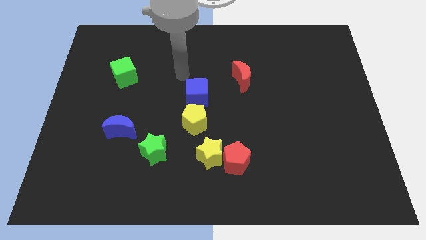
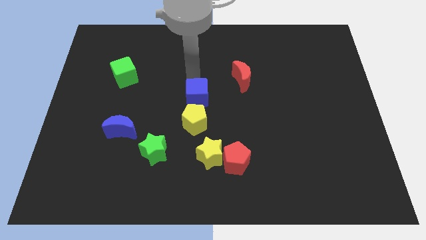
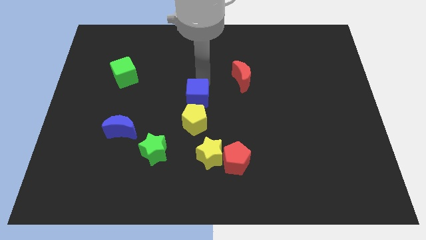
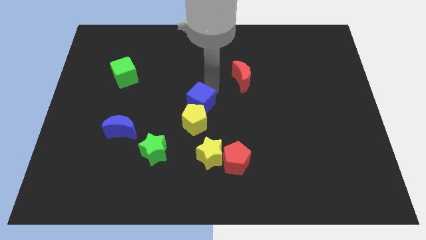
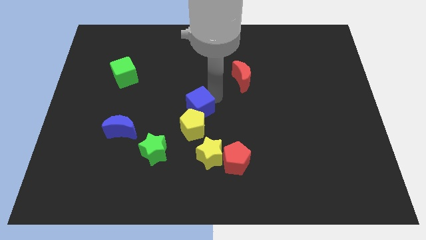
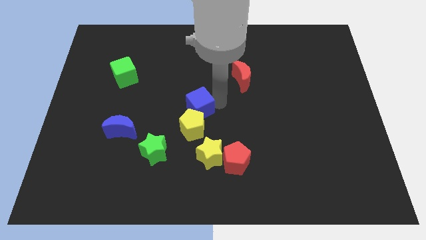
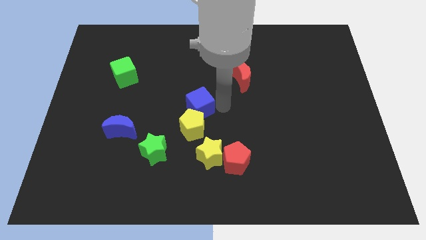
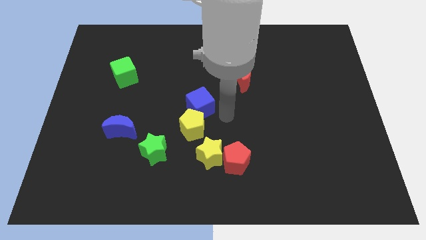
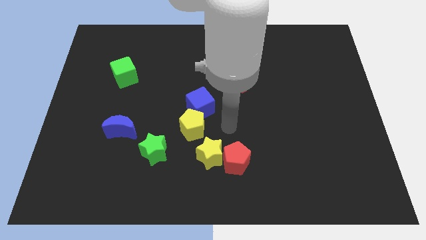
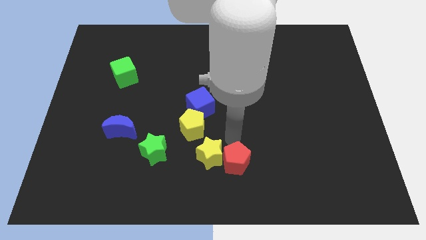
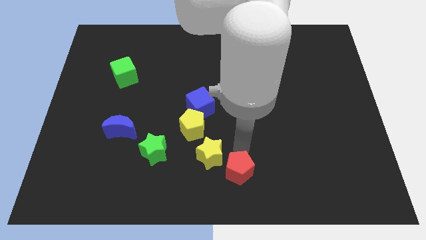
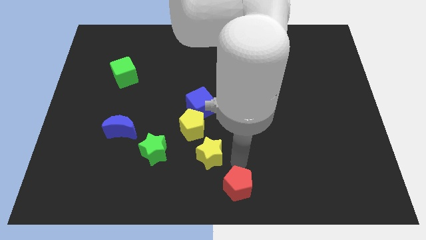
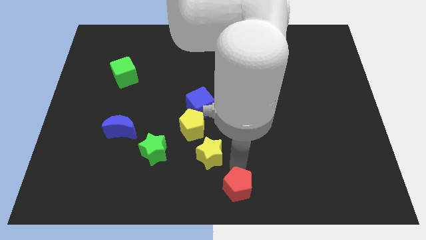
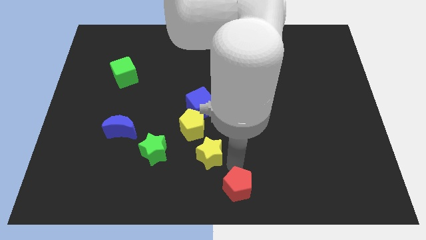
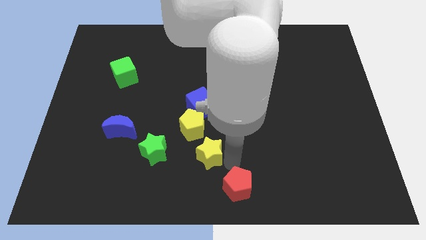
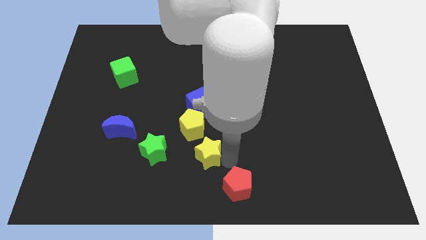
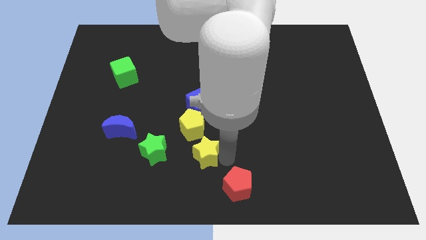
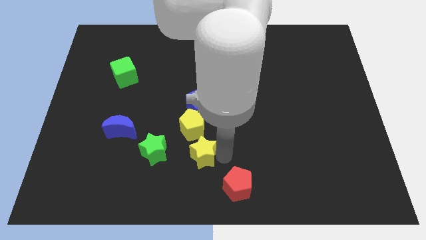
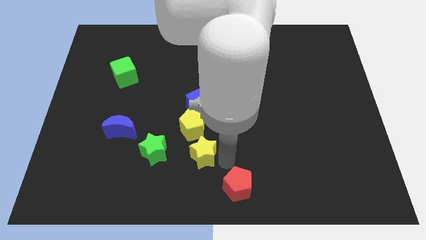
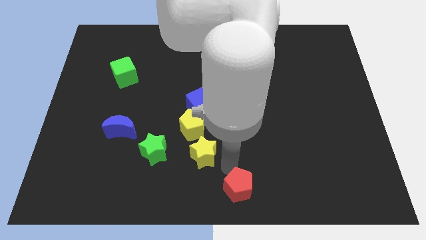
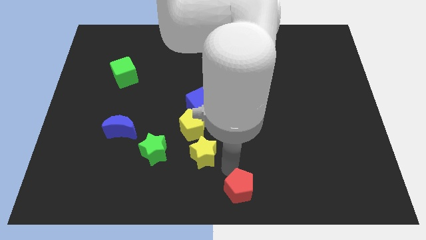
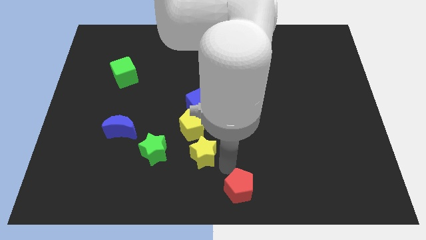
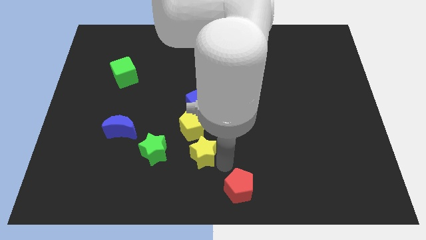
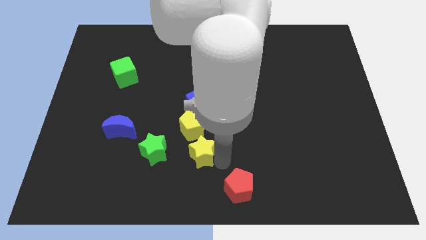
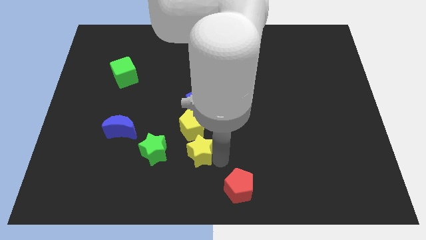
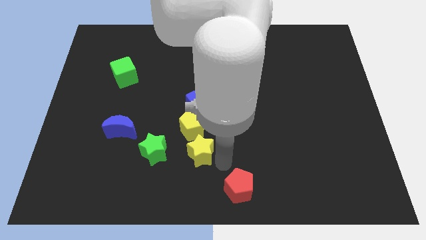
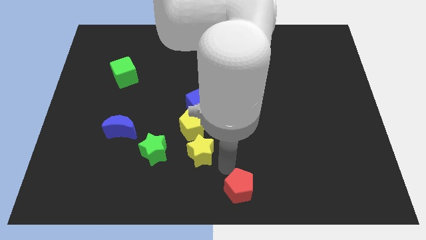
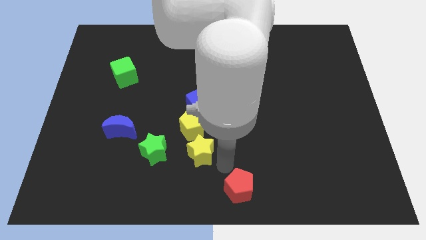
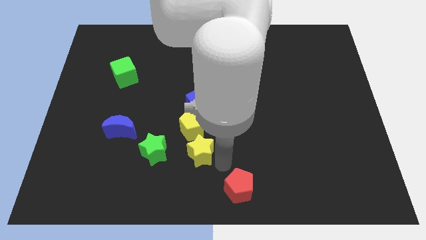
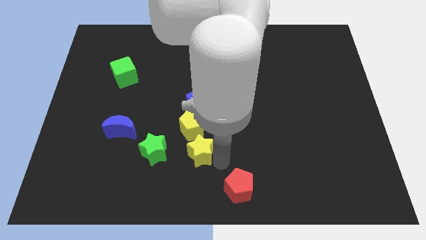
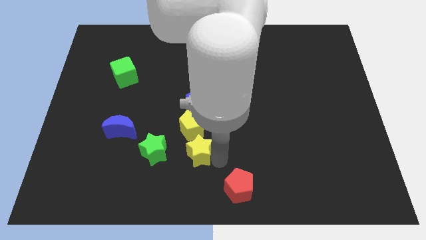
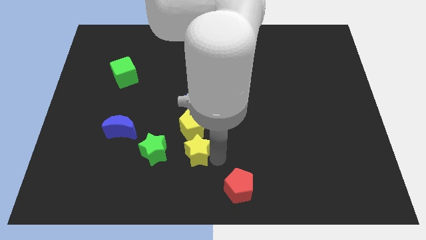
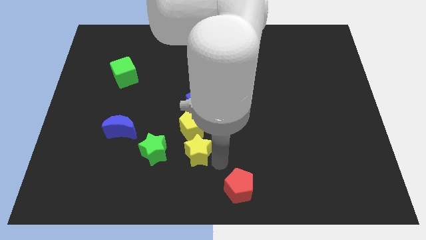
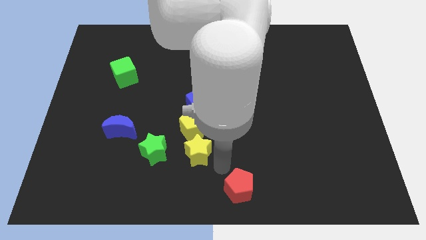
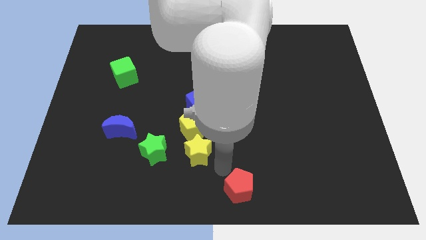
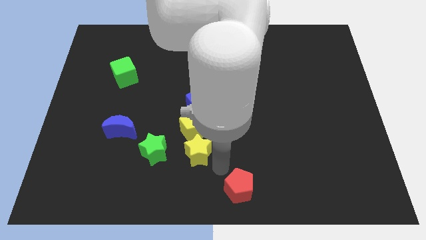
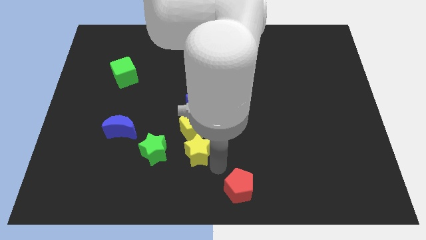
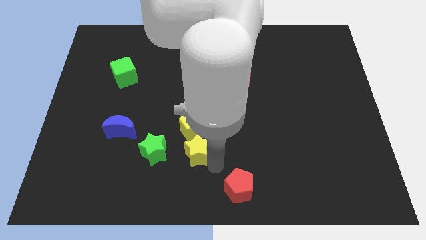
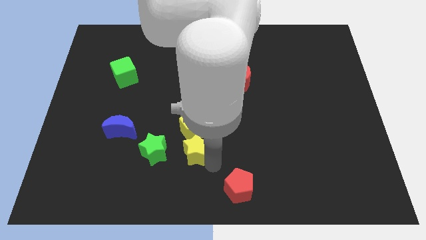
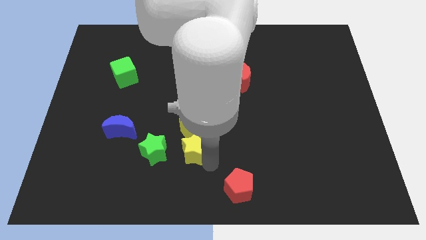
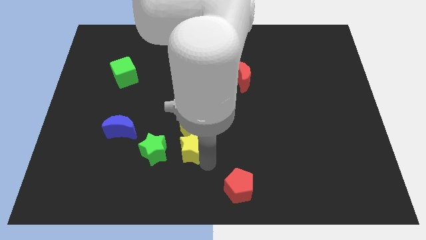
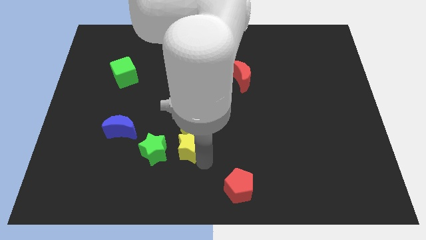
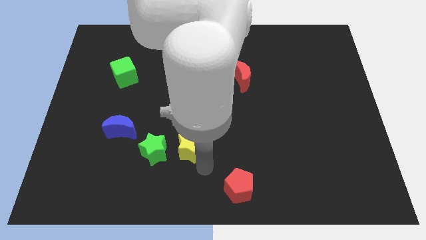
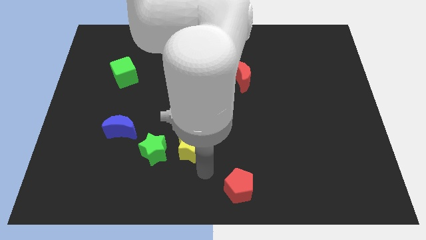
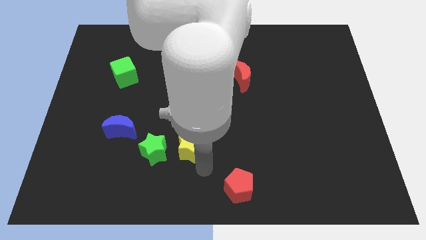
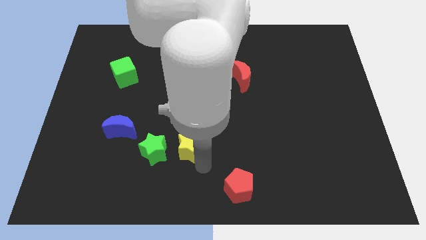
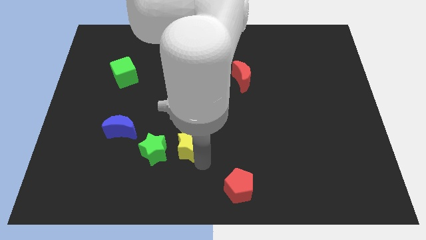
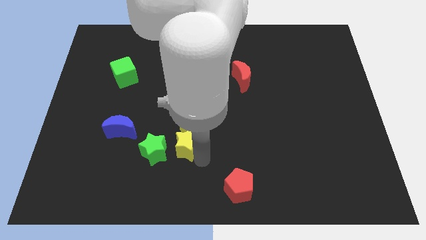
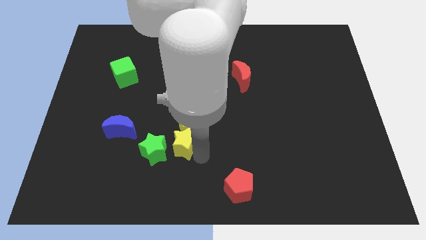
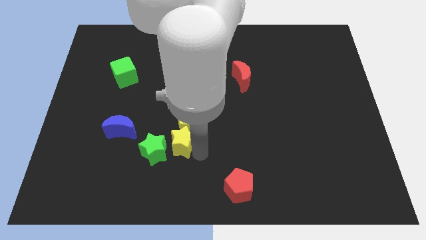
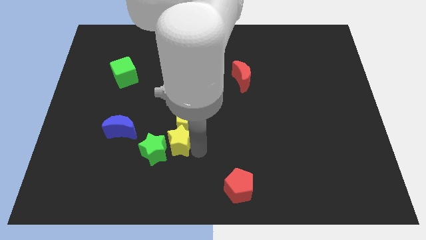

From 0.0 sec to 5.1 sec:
slide the yellow star diagonally down and to the left of the blue cube

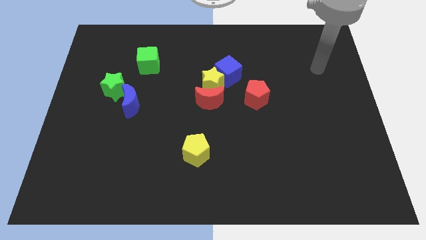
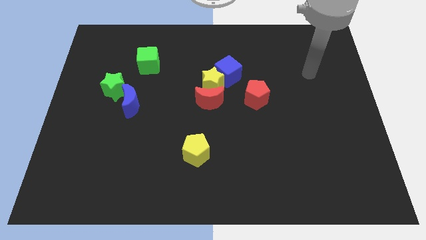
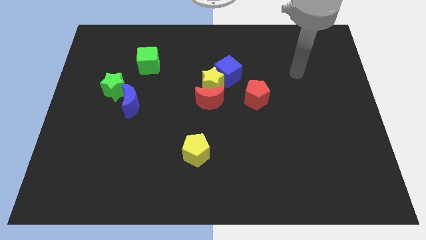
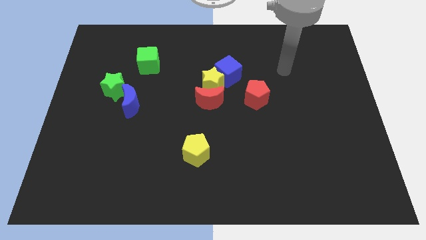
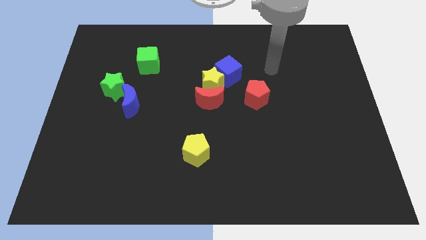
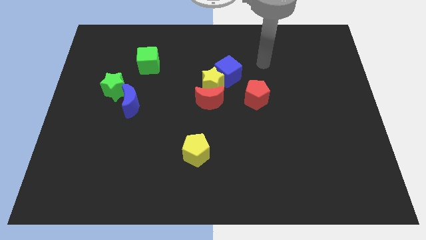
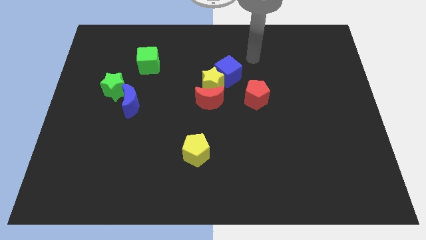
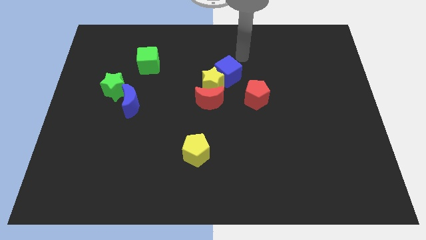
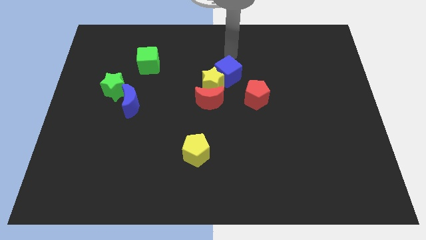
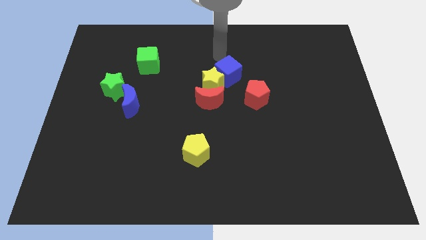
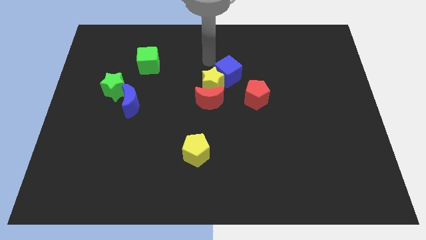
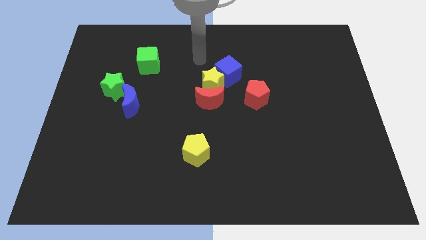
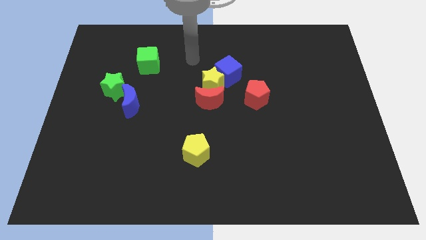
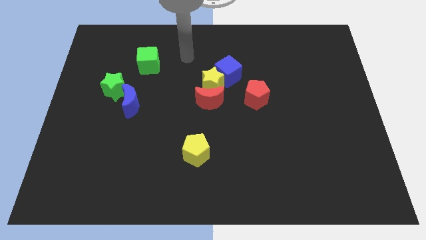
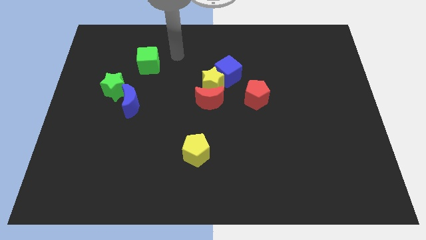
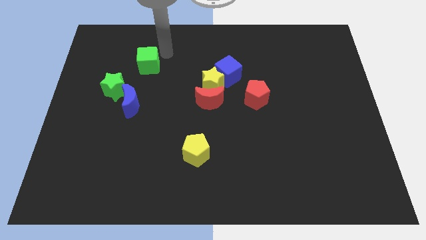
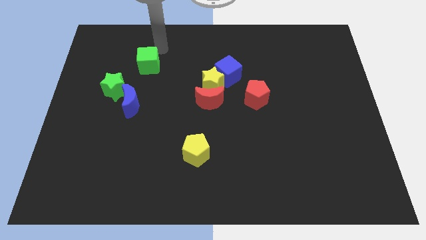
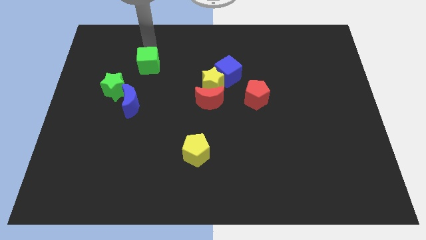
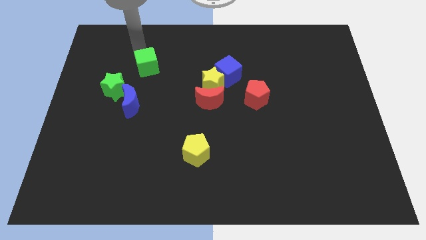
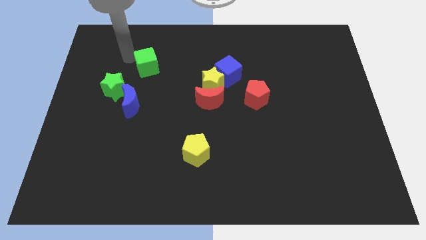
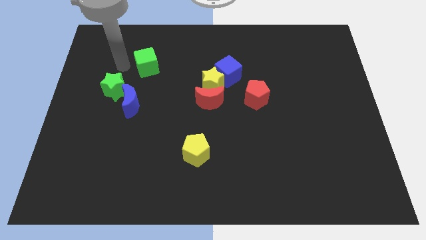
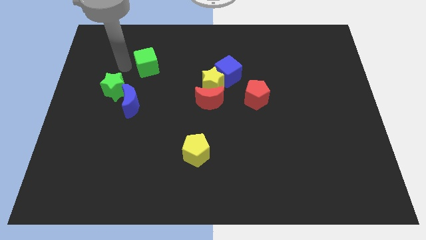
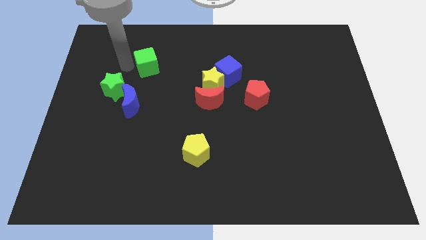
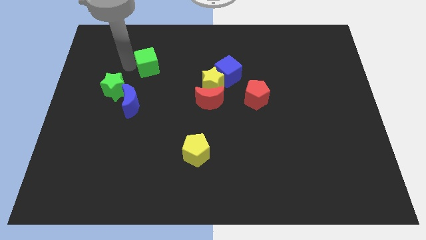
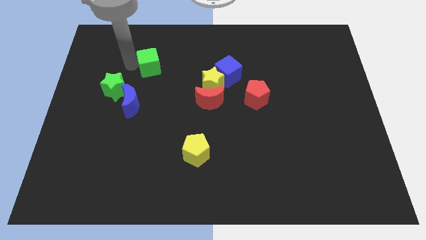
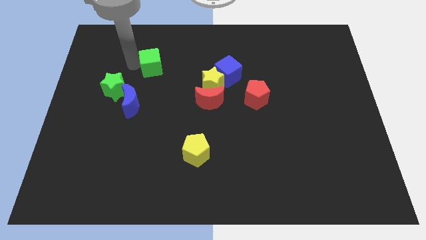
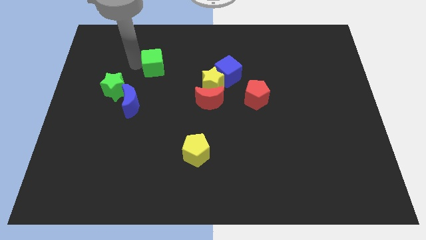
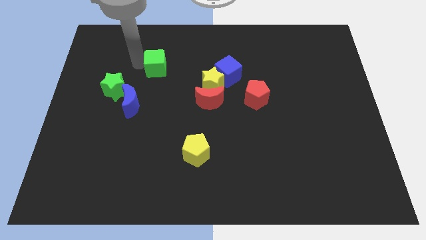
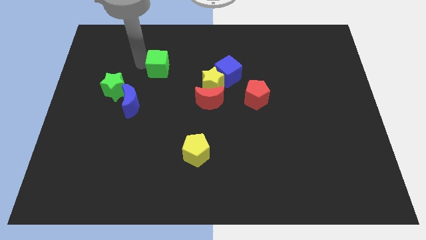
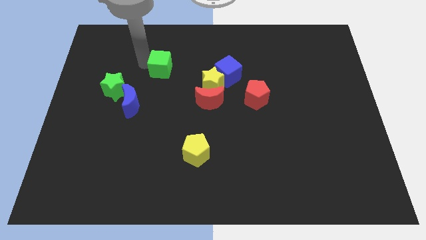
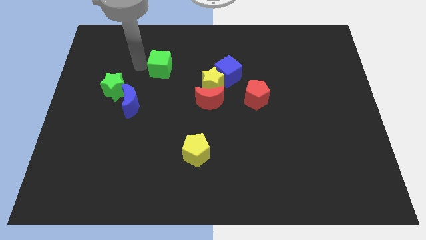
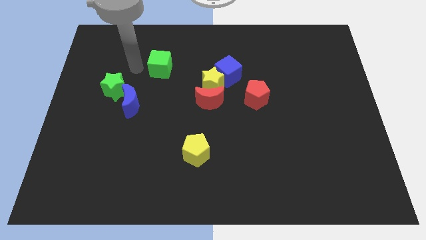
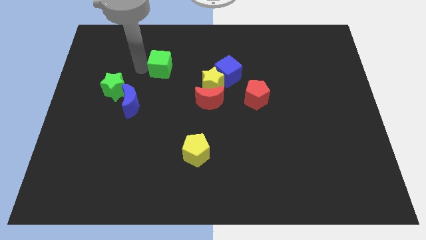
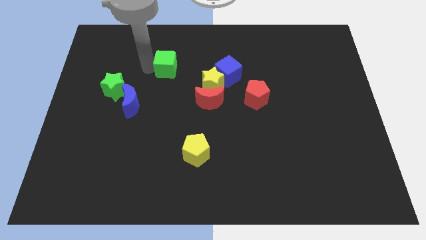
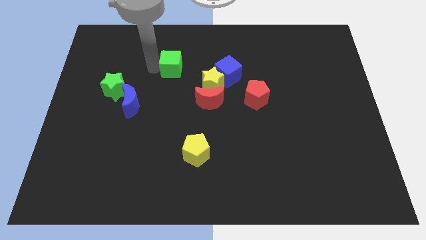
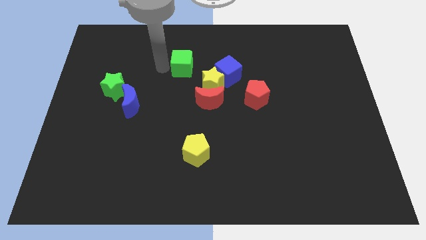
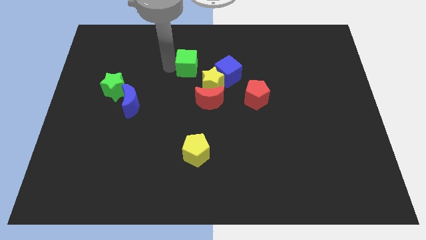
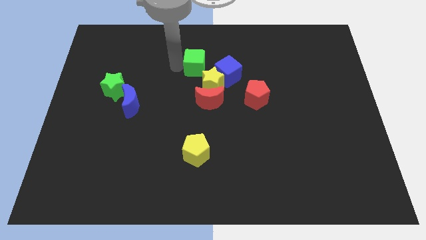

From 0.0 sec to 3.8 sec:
put the green cube to the top of the red moon
